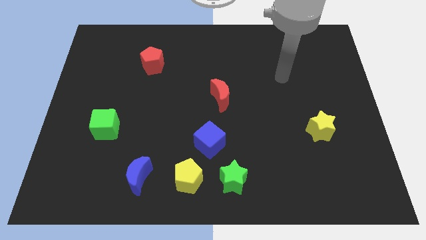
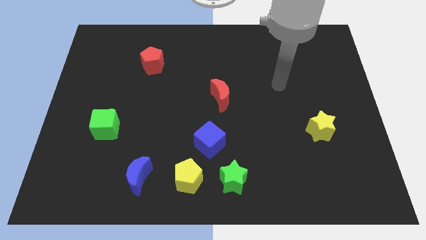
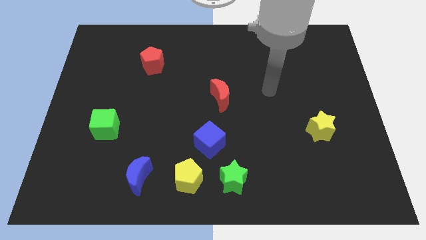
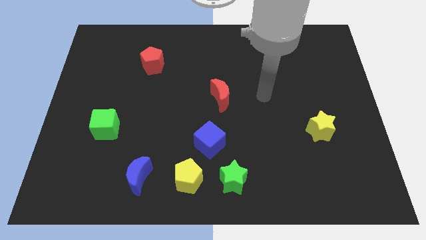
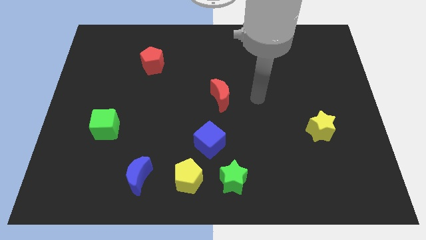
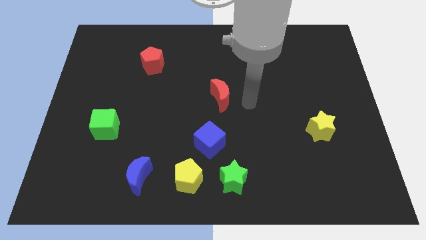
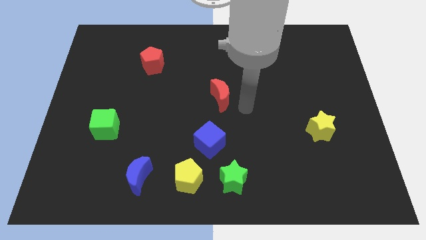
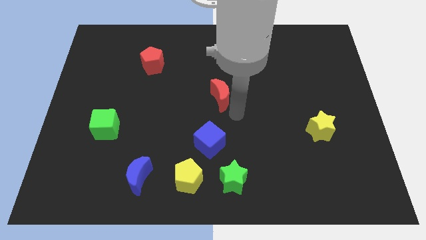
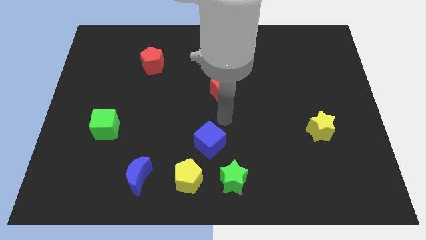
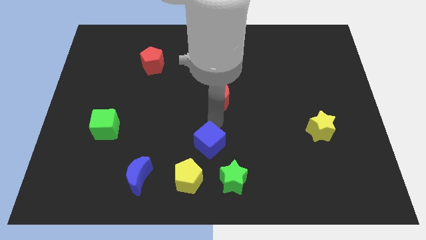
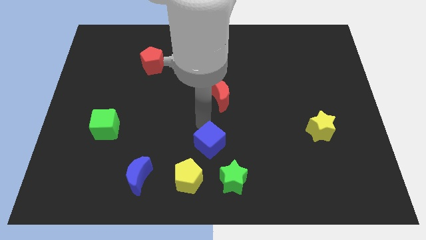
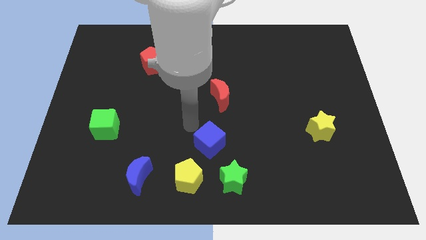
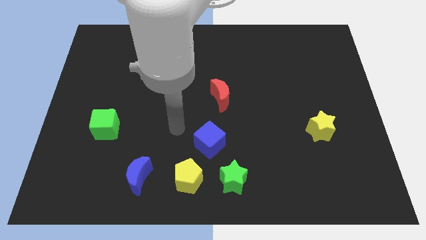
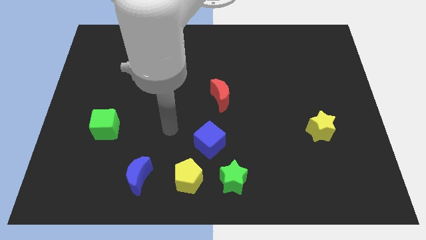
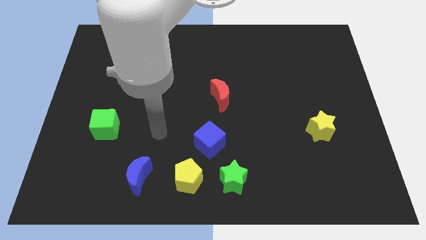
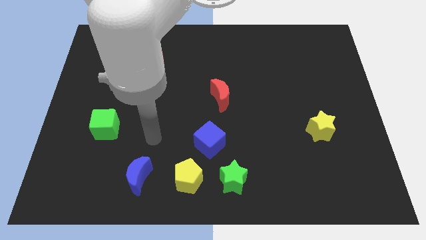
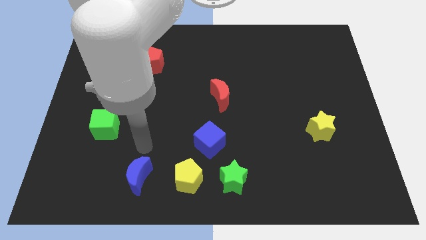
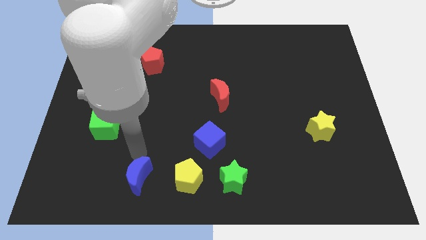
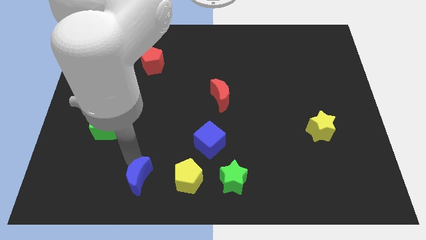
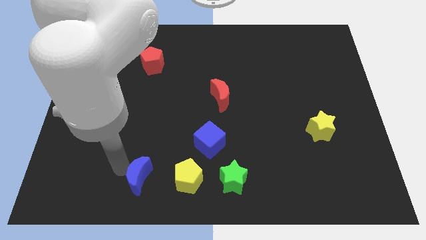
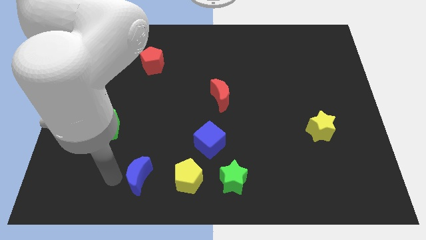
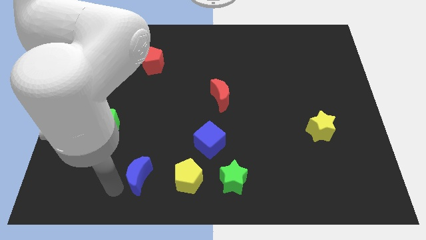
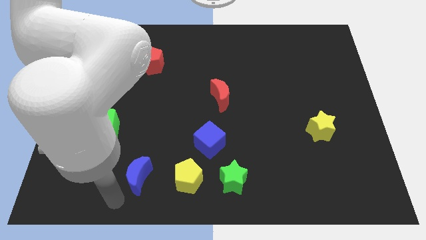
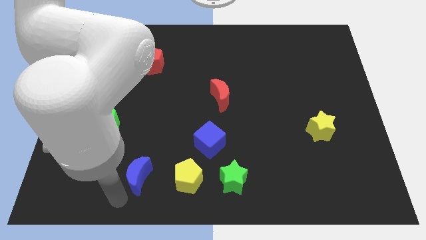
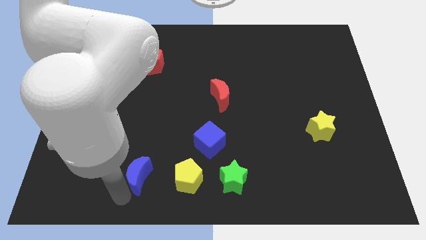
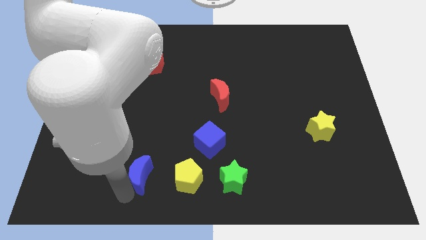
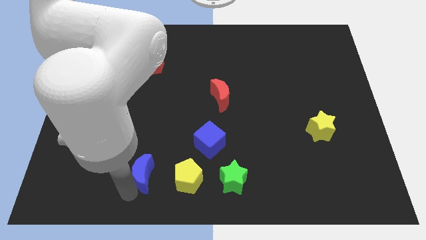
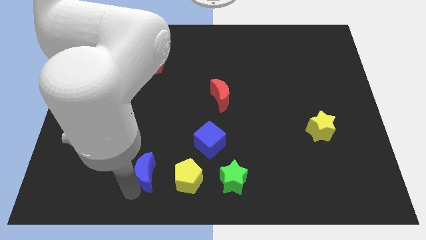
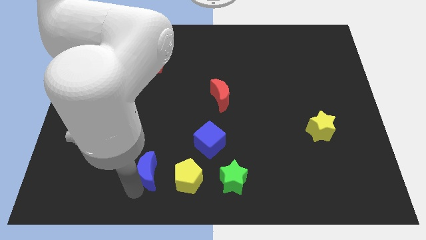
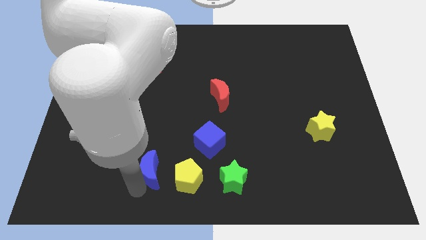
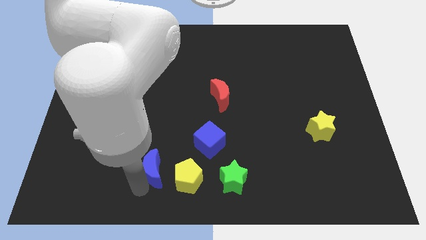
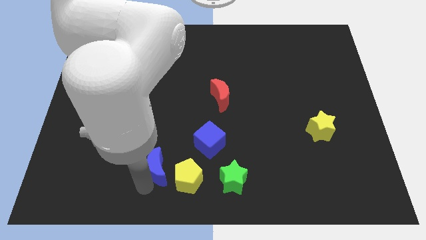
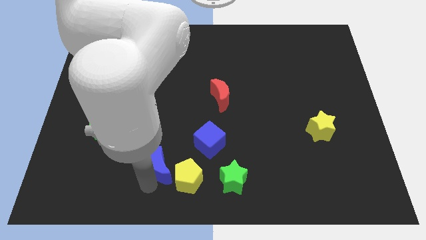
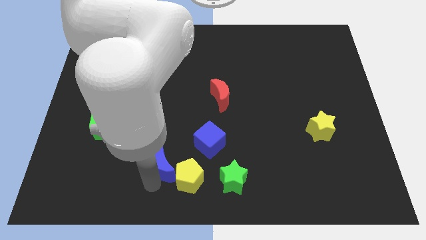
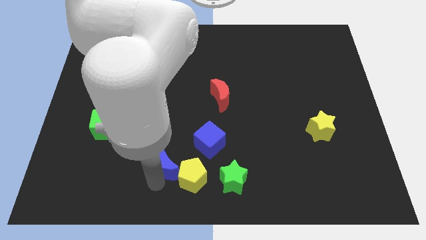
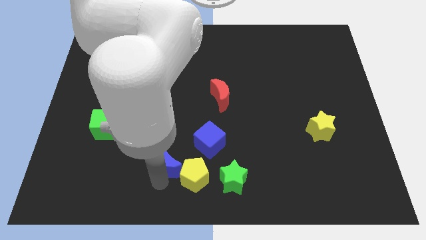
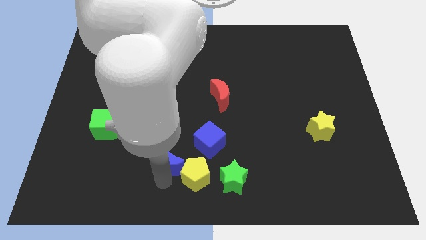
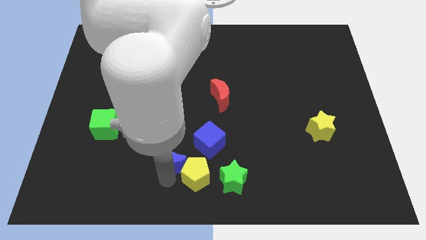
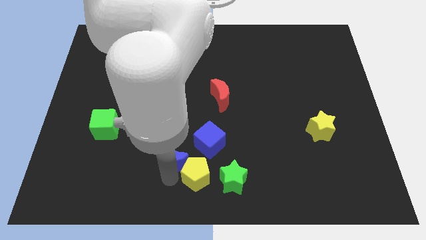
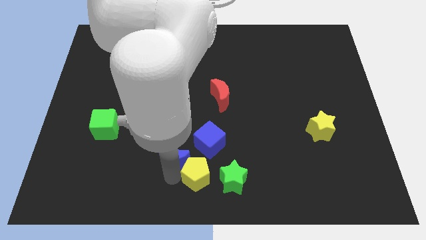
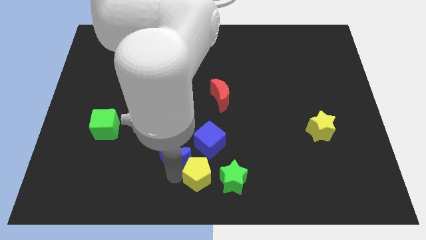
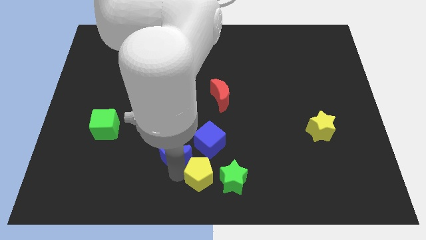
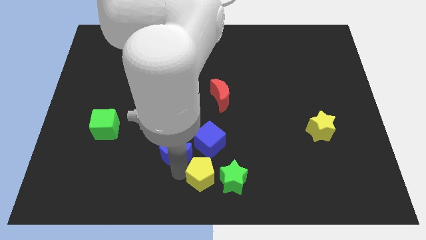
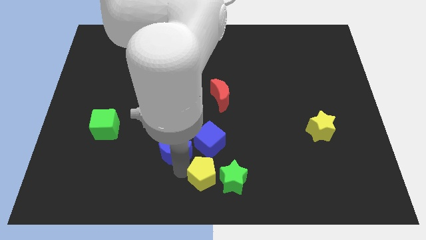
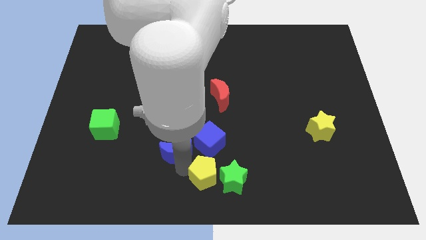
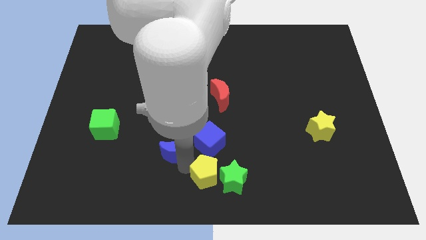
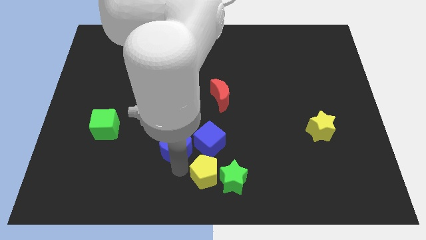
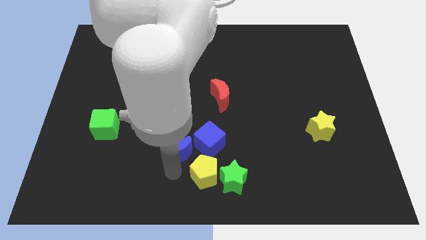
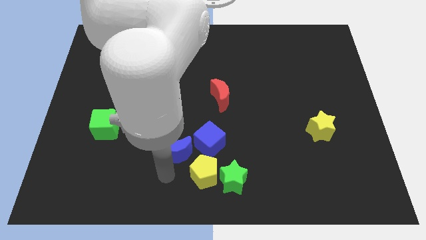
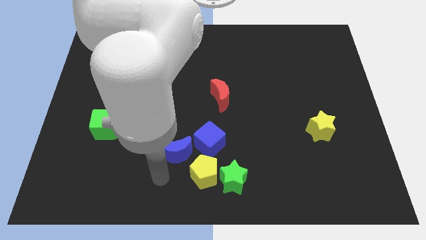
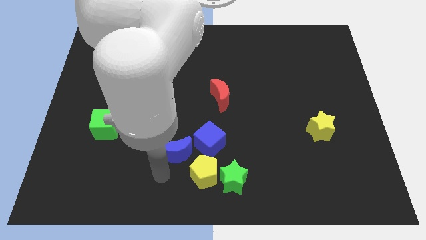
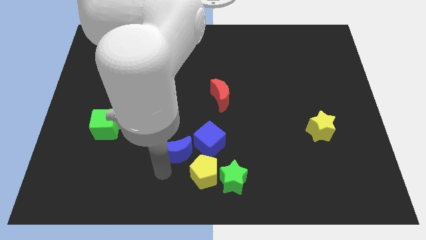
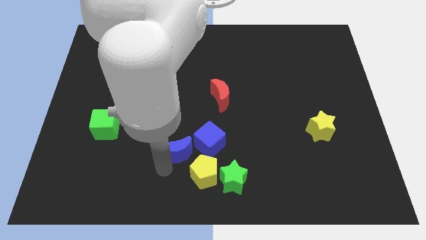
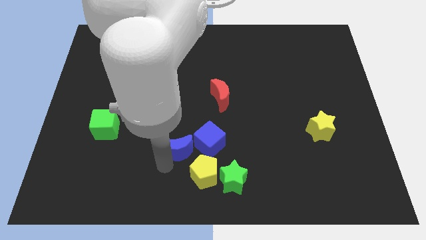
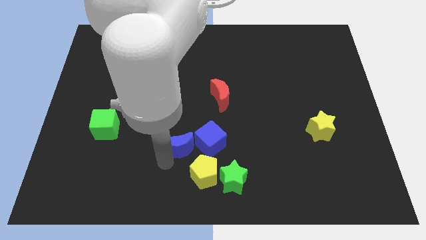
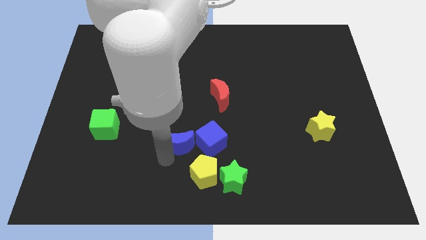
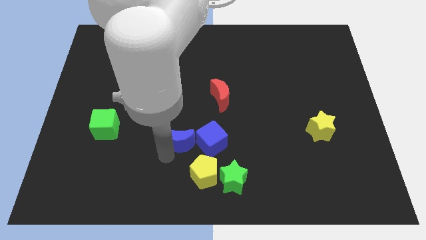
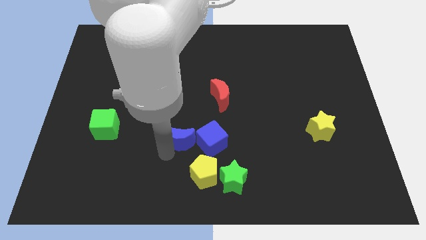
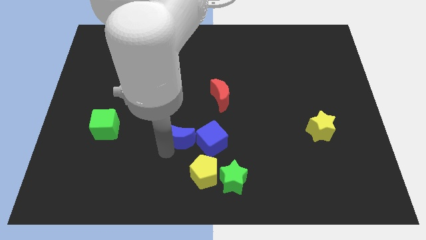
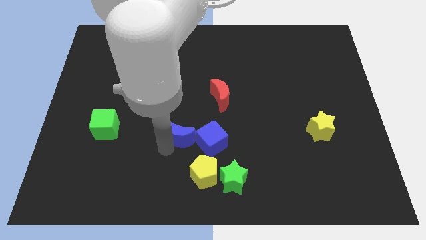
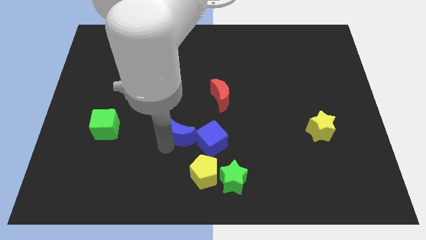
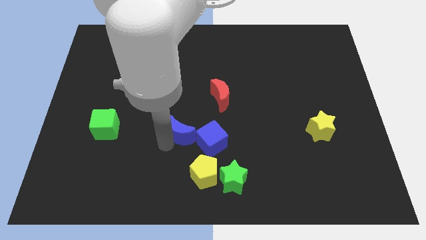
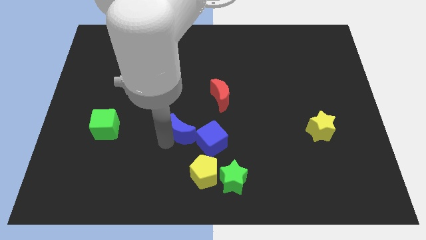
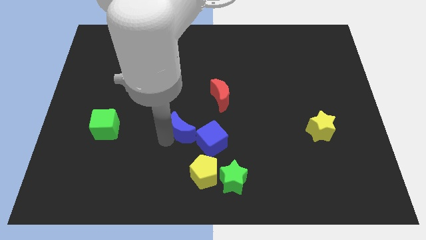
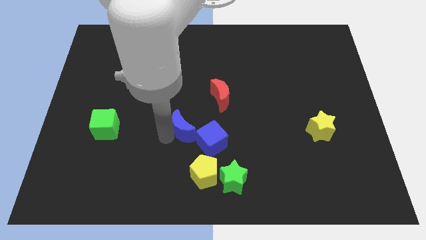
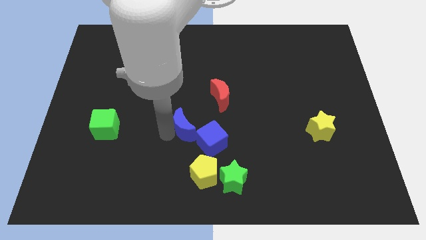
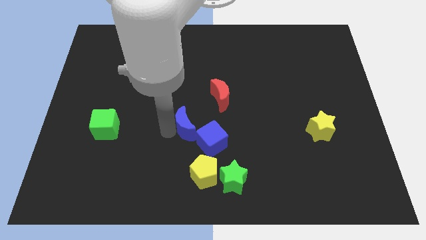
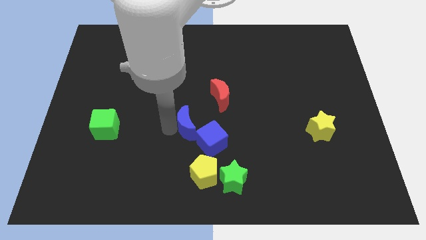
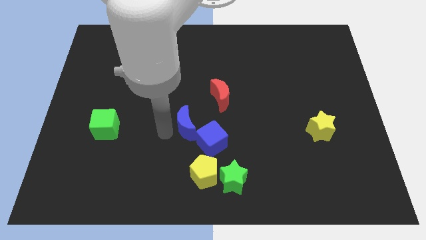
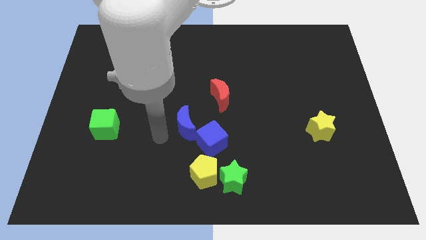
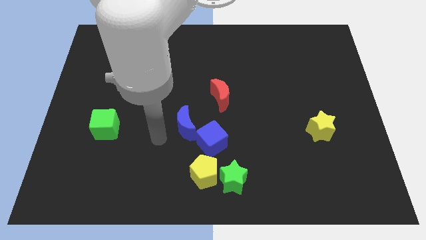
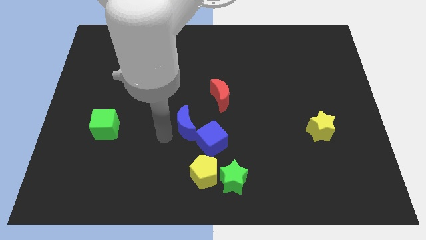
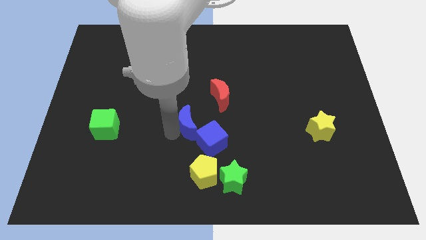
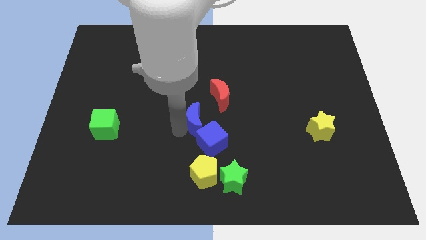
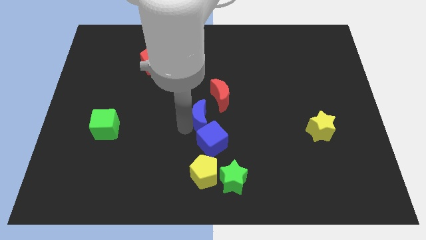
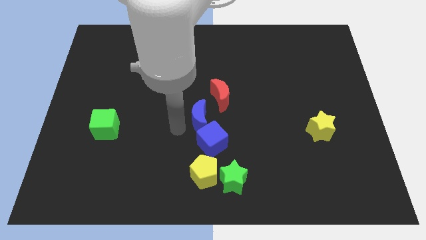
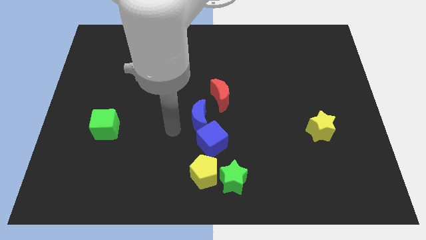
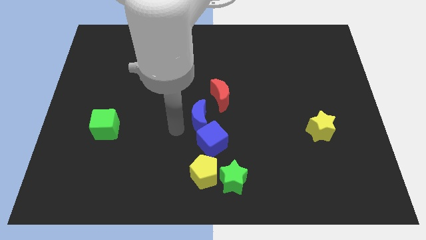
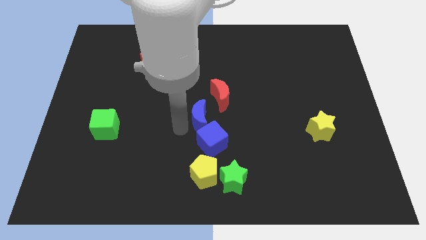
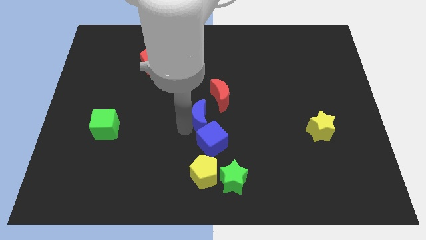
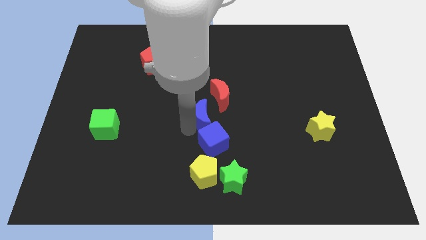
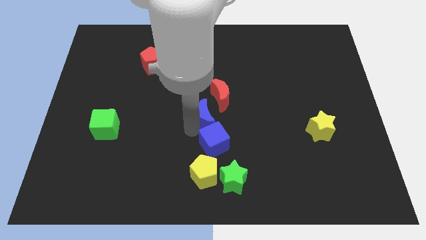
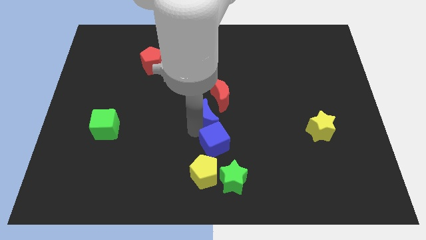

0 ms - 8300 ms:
slide the blue moon upwards and then to the right
